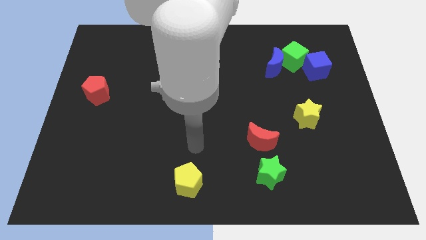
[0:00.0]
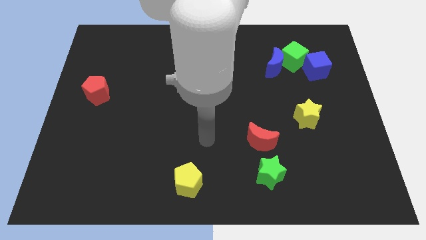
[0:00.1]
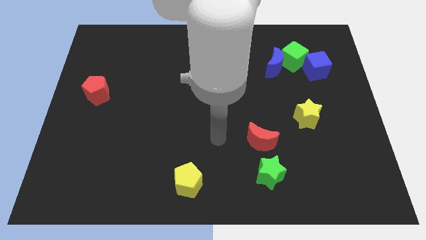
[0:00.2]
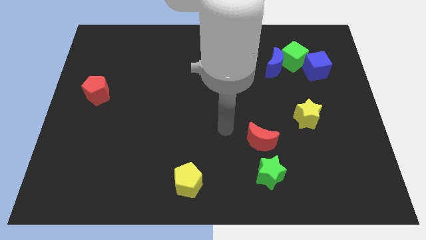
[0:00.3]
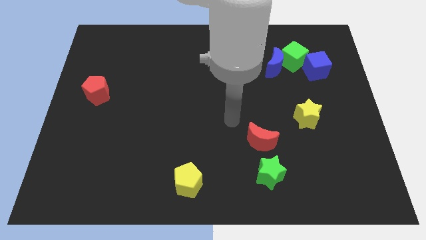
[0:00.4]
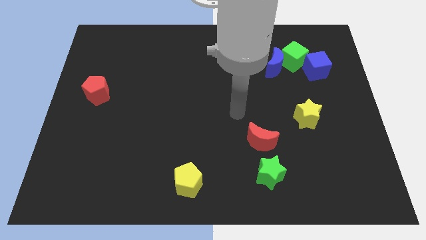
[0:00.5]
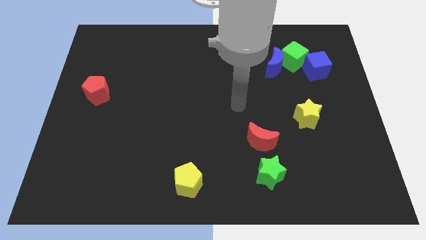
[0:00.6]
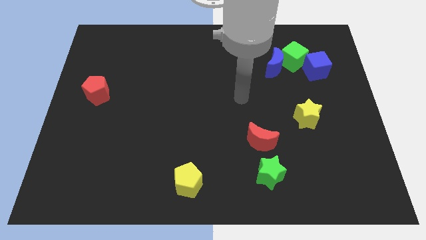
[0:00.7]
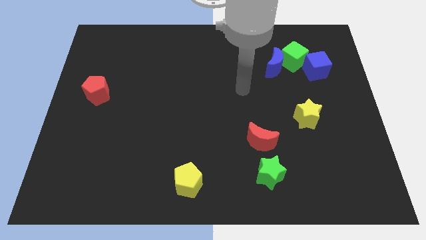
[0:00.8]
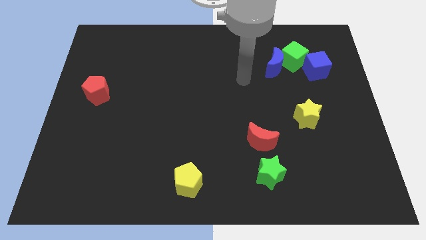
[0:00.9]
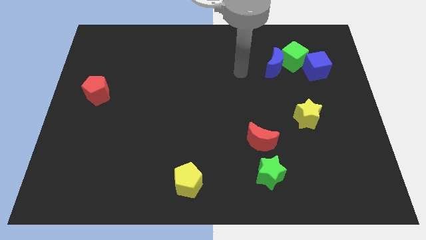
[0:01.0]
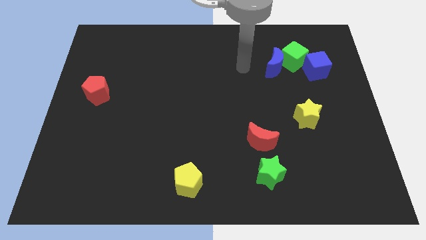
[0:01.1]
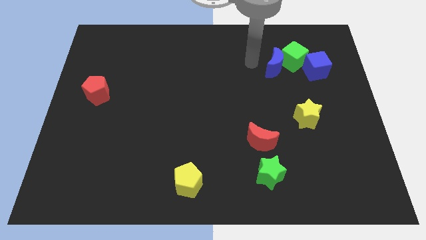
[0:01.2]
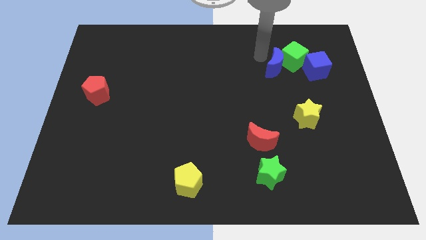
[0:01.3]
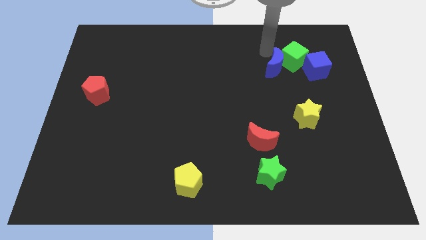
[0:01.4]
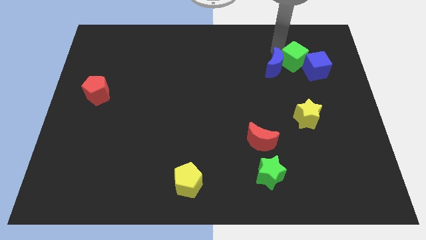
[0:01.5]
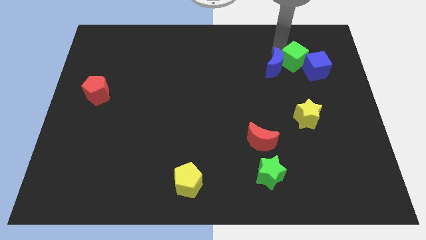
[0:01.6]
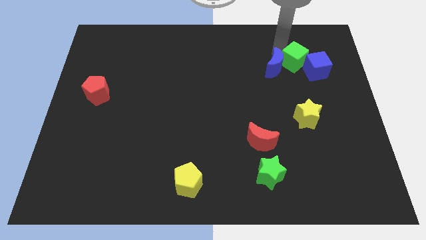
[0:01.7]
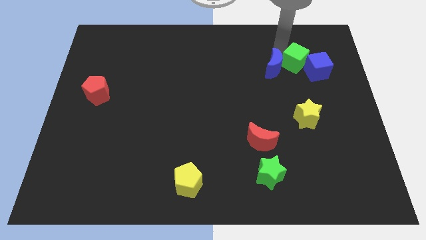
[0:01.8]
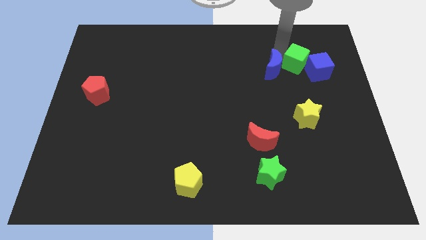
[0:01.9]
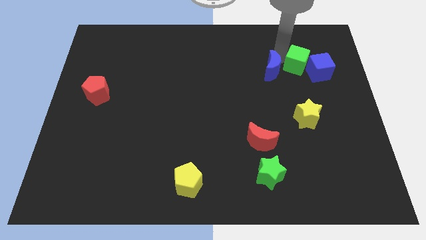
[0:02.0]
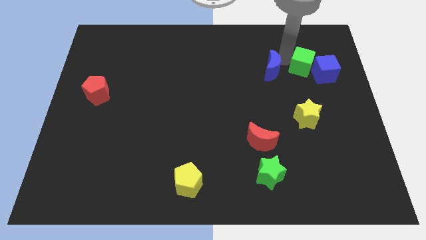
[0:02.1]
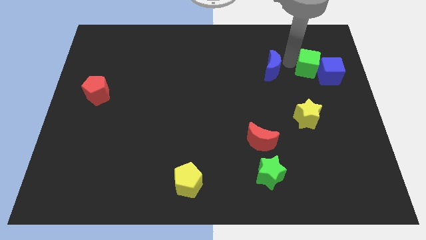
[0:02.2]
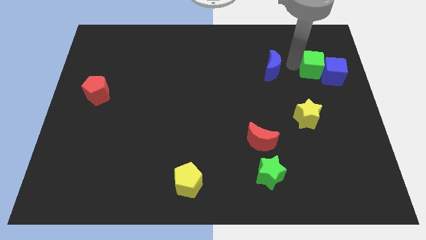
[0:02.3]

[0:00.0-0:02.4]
pull the blue moon apart from the green cube

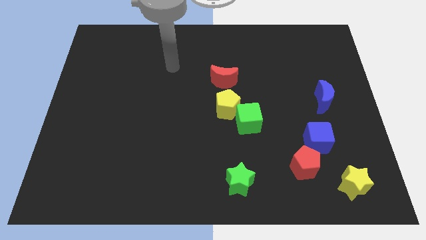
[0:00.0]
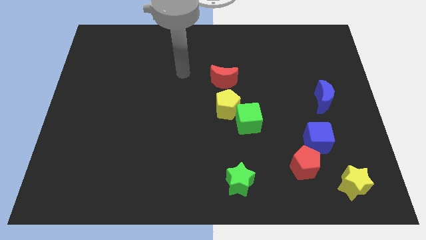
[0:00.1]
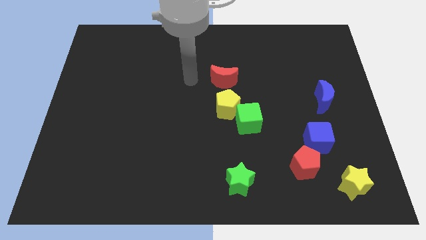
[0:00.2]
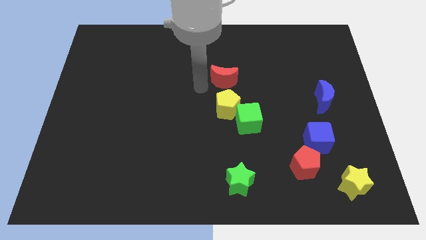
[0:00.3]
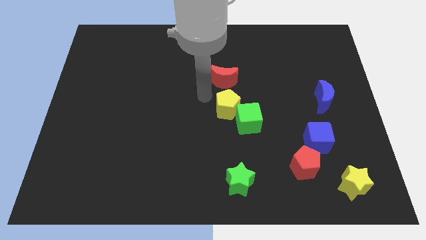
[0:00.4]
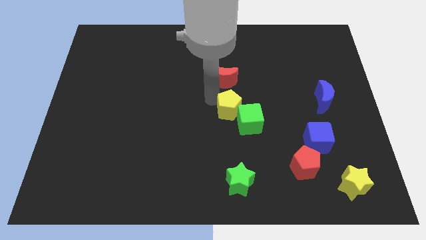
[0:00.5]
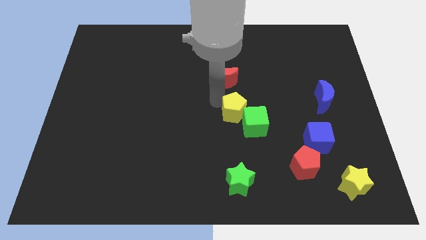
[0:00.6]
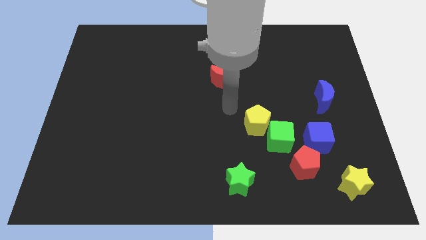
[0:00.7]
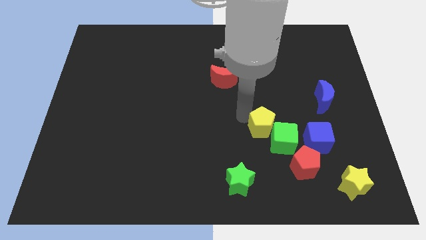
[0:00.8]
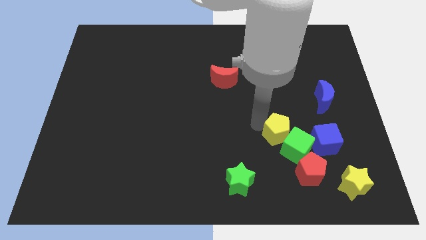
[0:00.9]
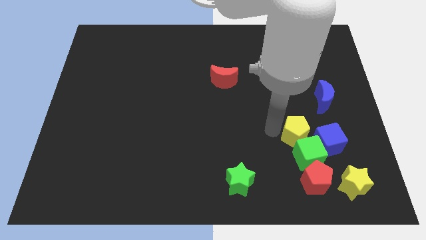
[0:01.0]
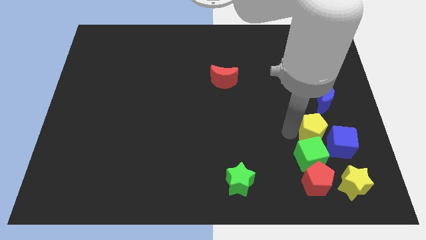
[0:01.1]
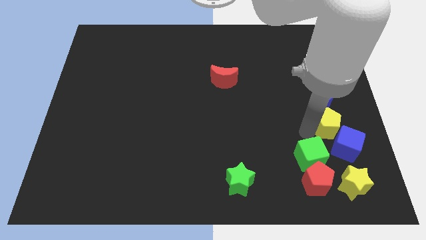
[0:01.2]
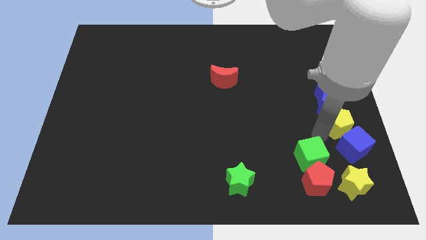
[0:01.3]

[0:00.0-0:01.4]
pull the green cube apart from the yellow pentagon

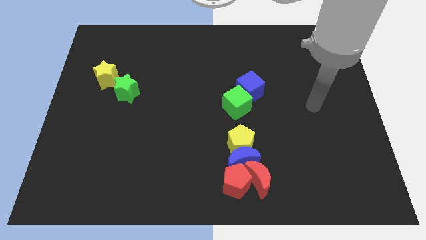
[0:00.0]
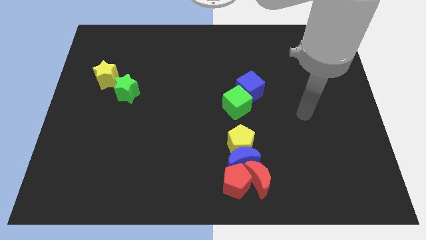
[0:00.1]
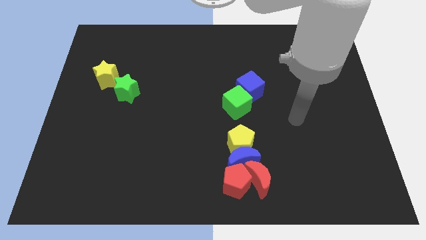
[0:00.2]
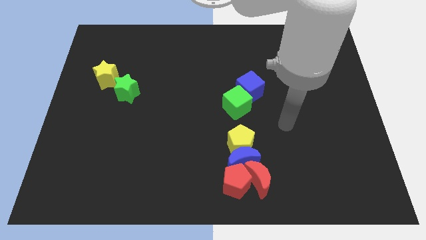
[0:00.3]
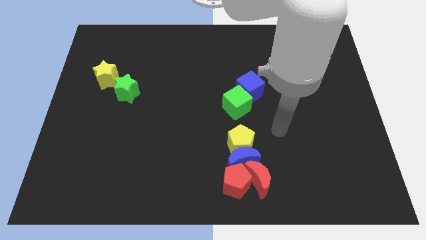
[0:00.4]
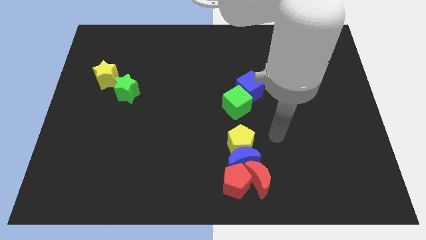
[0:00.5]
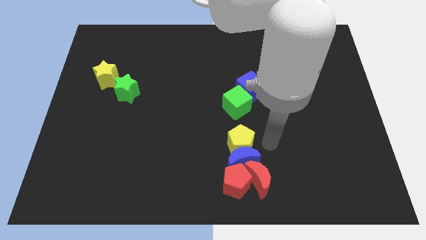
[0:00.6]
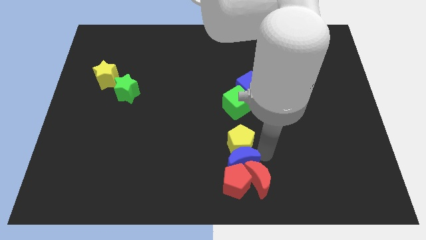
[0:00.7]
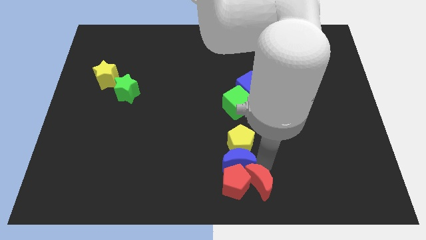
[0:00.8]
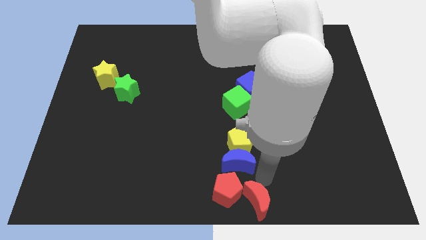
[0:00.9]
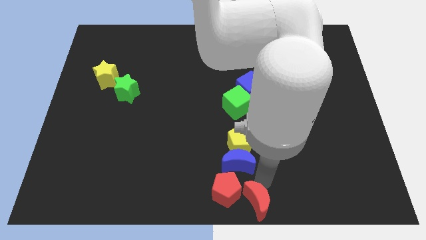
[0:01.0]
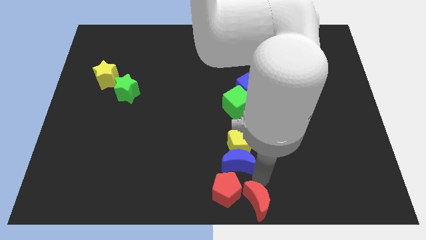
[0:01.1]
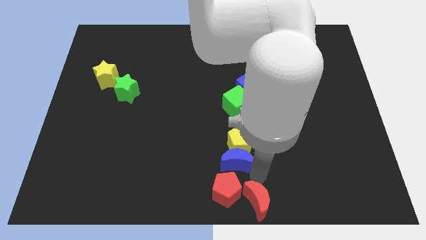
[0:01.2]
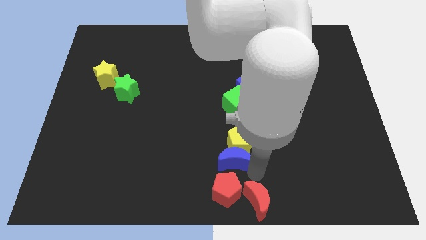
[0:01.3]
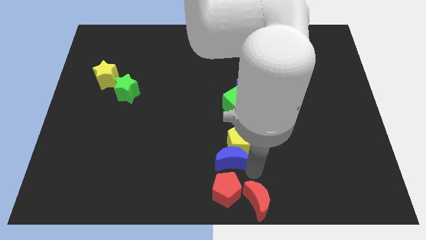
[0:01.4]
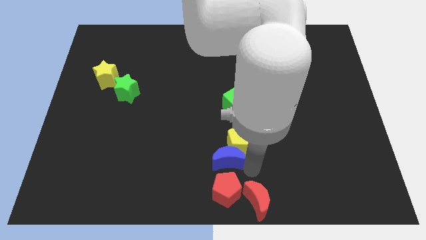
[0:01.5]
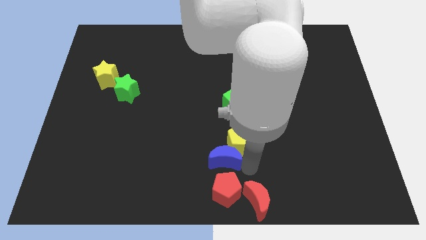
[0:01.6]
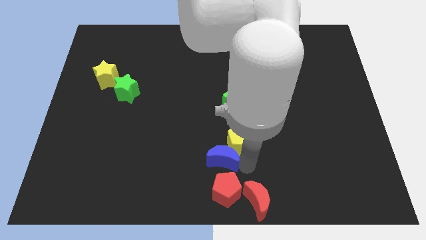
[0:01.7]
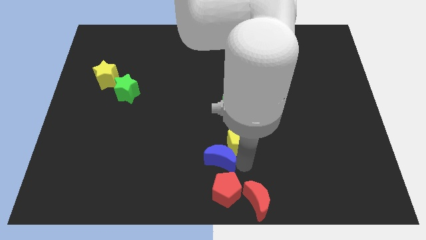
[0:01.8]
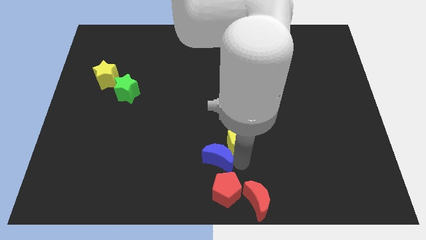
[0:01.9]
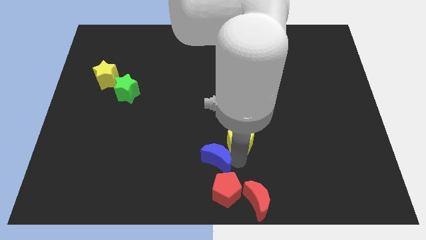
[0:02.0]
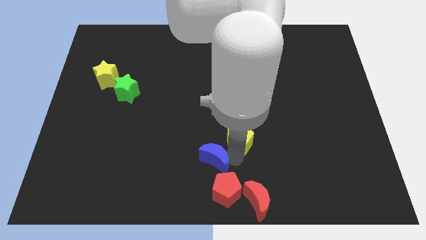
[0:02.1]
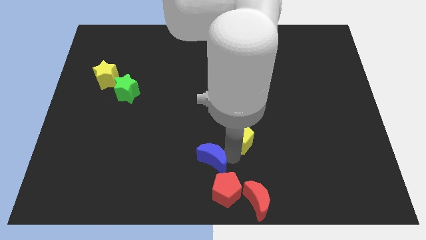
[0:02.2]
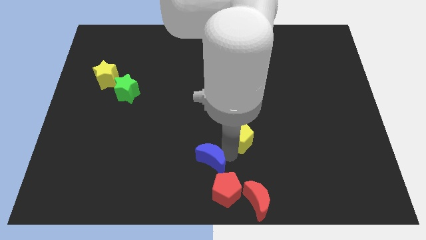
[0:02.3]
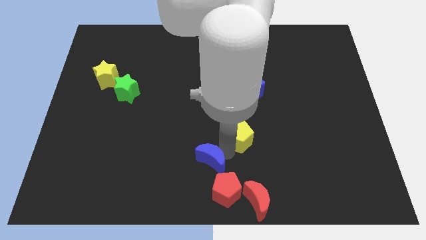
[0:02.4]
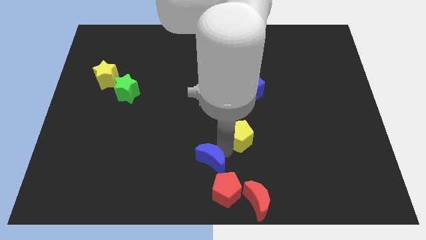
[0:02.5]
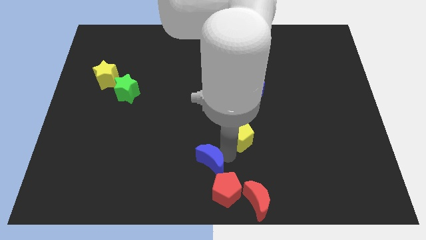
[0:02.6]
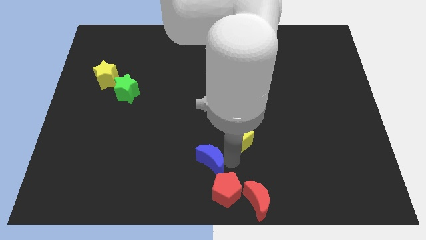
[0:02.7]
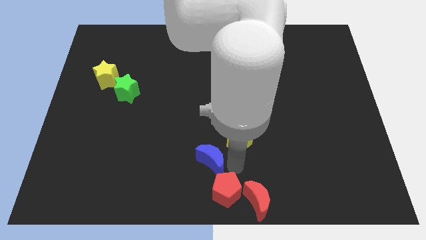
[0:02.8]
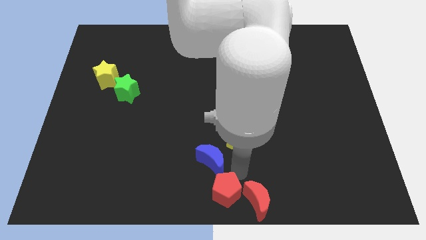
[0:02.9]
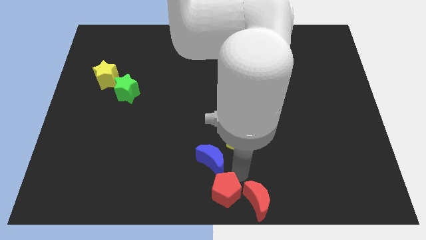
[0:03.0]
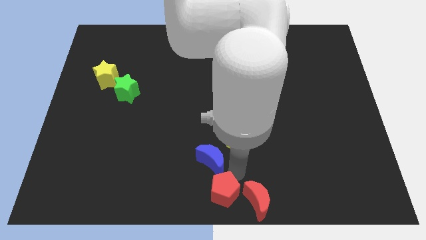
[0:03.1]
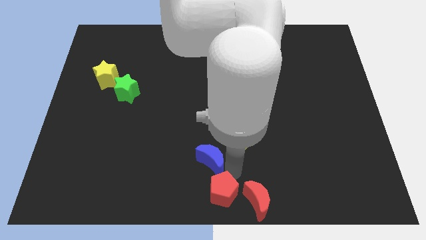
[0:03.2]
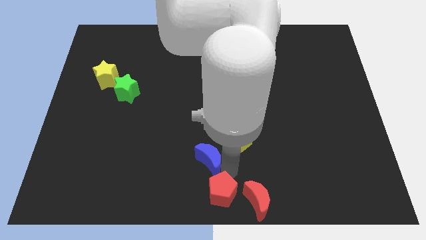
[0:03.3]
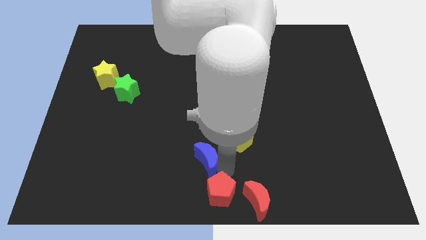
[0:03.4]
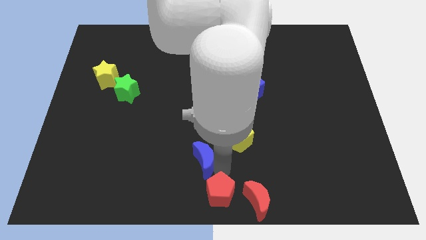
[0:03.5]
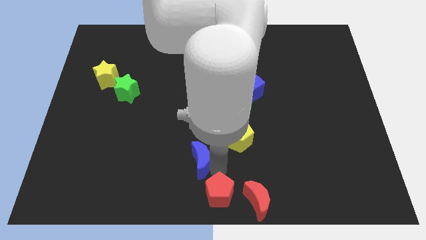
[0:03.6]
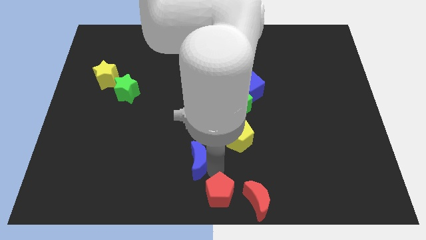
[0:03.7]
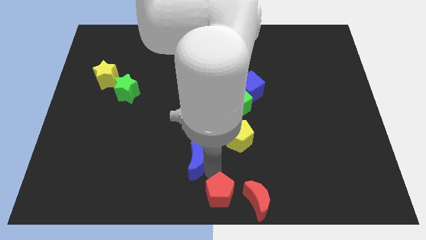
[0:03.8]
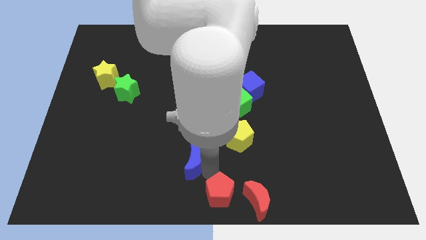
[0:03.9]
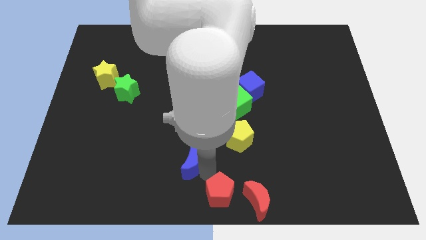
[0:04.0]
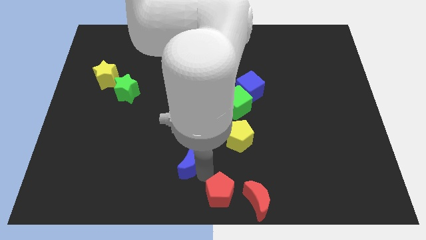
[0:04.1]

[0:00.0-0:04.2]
separate the blue moon from the yellow pentagon, red pentagon, and red moon

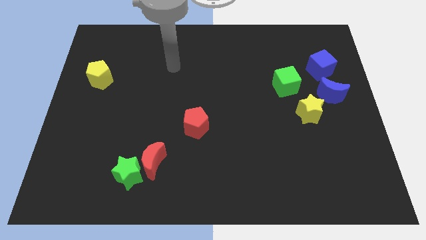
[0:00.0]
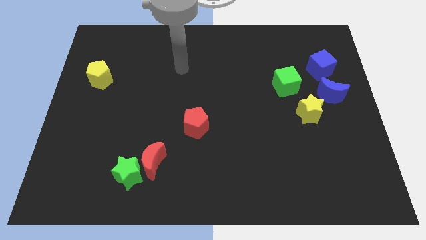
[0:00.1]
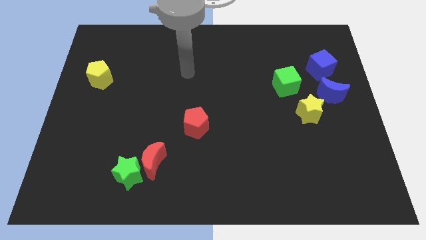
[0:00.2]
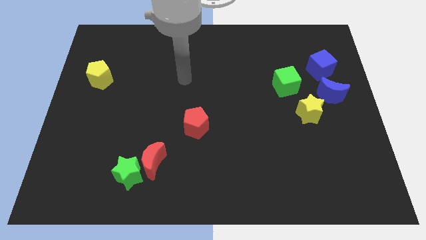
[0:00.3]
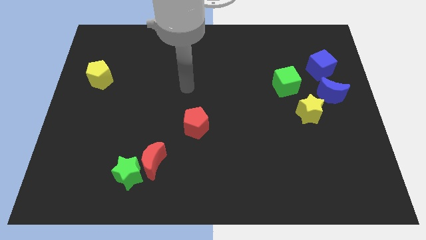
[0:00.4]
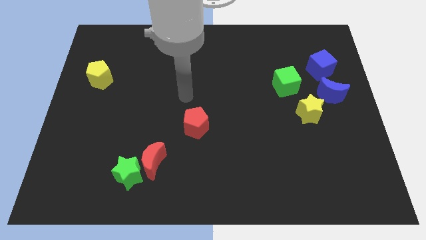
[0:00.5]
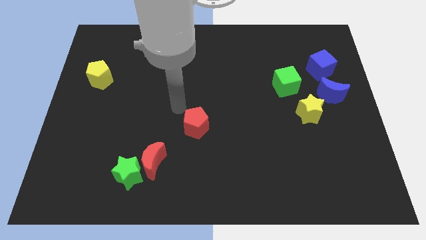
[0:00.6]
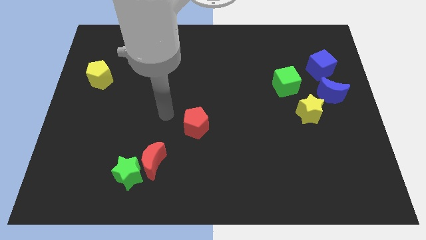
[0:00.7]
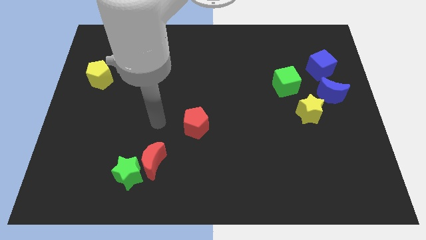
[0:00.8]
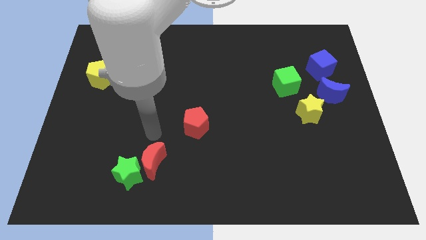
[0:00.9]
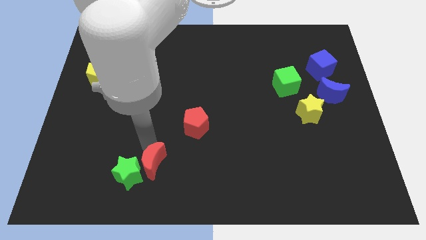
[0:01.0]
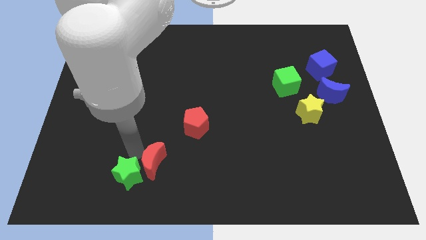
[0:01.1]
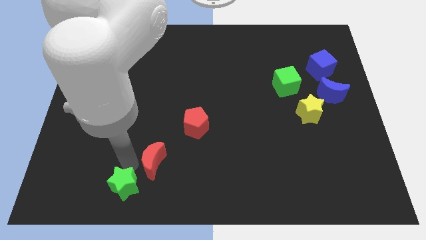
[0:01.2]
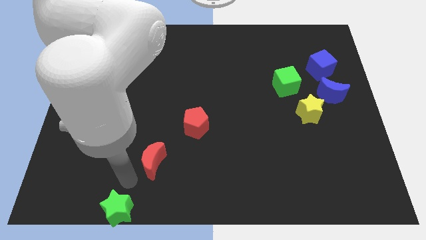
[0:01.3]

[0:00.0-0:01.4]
pull the red moon apart from the green star
